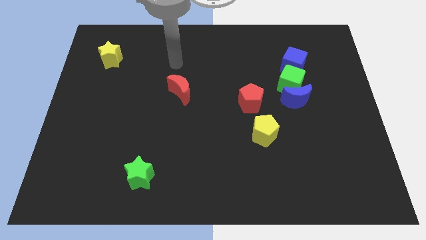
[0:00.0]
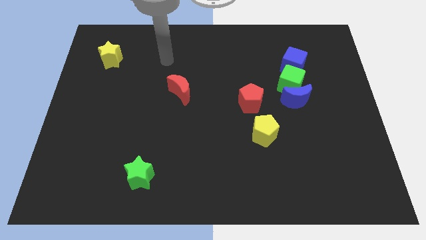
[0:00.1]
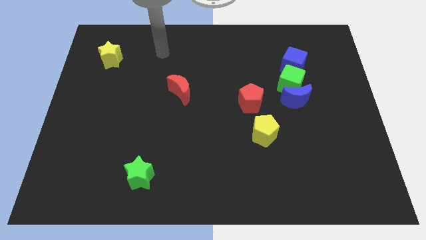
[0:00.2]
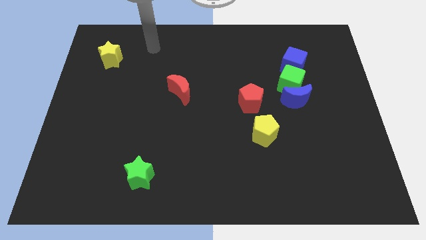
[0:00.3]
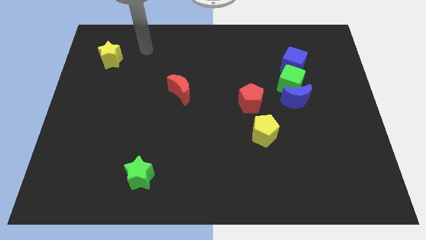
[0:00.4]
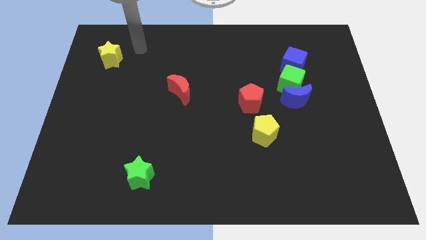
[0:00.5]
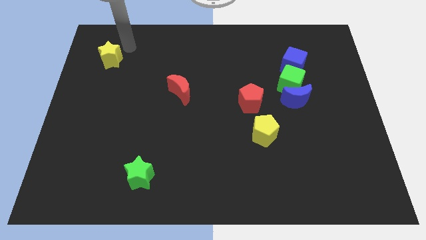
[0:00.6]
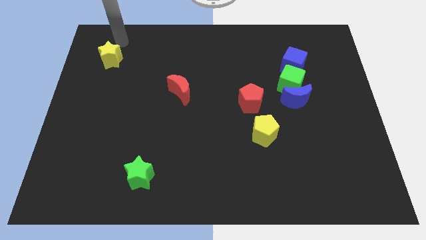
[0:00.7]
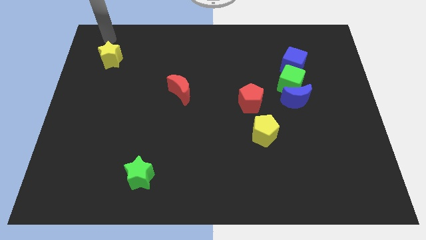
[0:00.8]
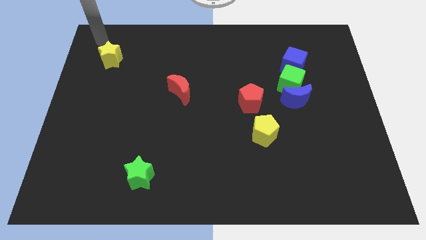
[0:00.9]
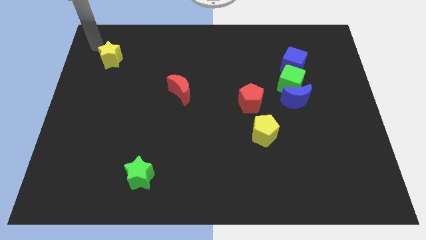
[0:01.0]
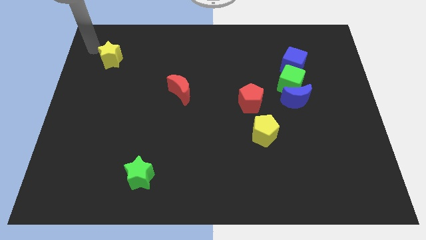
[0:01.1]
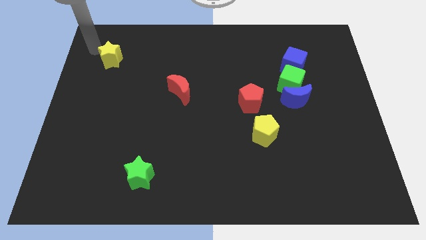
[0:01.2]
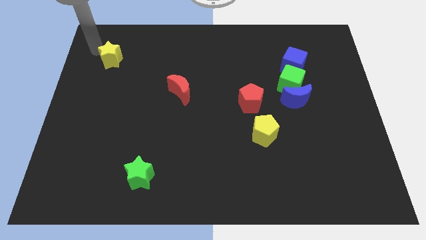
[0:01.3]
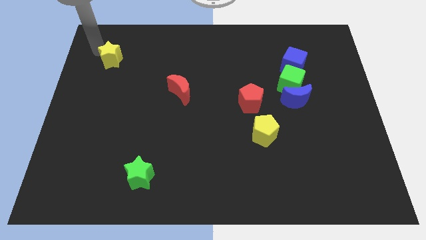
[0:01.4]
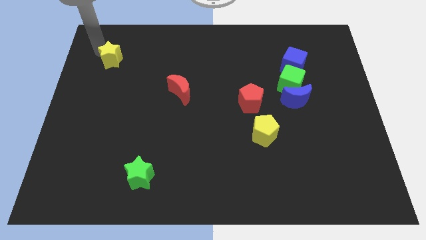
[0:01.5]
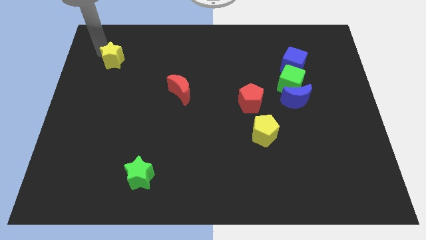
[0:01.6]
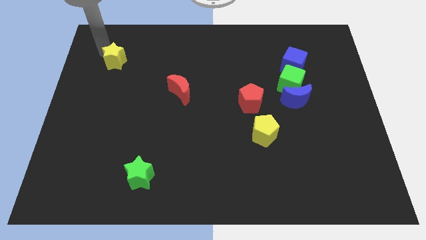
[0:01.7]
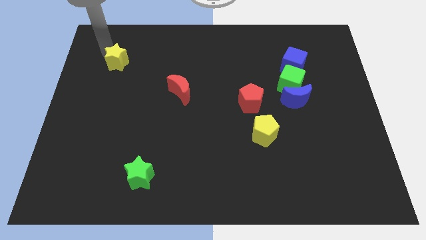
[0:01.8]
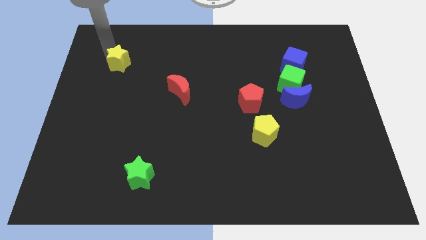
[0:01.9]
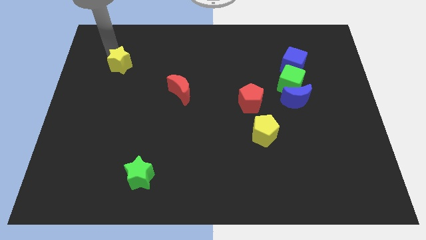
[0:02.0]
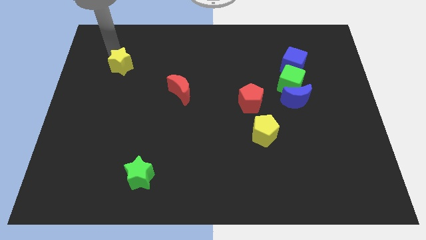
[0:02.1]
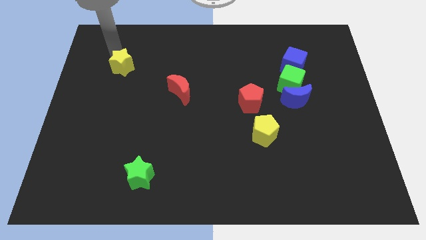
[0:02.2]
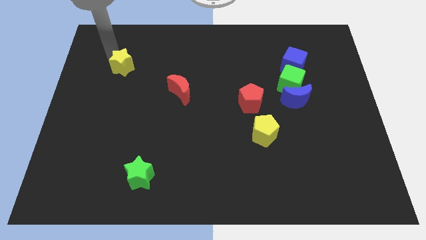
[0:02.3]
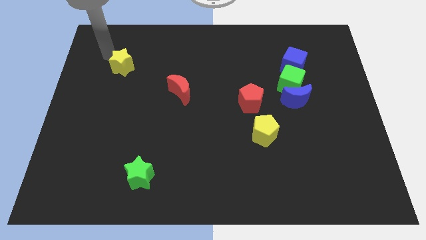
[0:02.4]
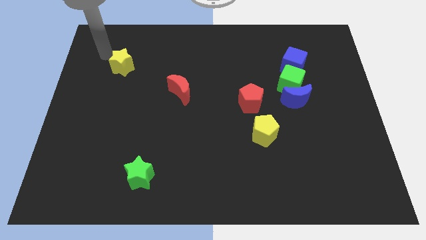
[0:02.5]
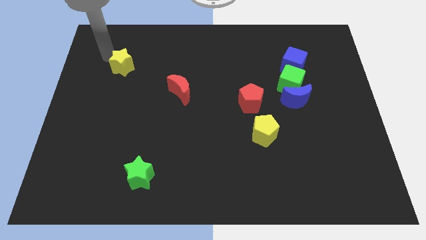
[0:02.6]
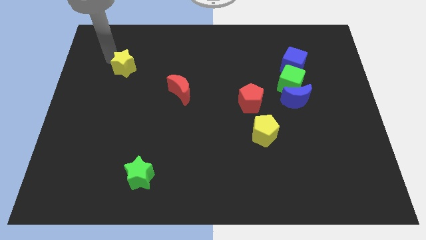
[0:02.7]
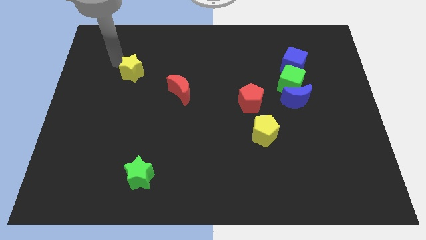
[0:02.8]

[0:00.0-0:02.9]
move the yellow star downwards and then to the right a little bit

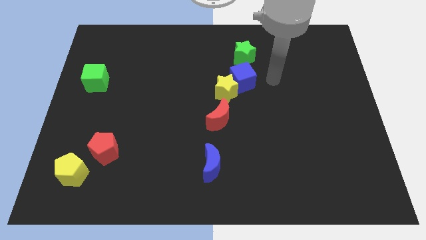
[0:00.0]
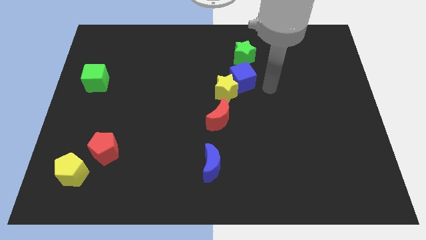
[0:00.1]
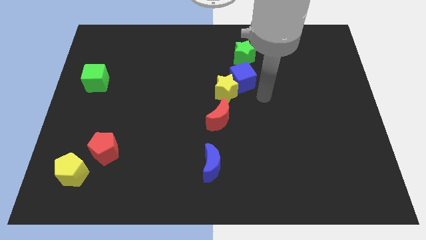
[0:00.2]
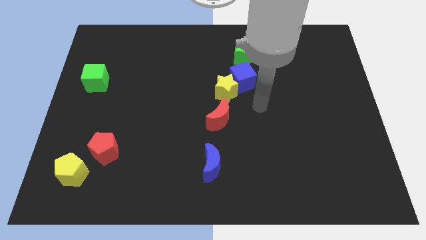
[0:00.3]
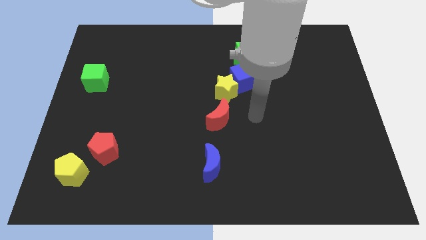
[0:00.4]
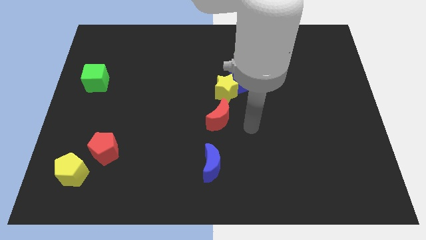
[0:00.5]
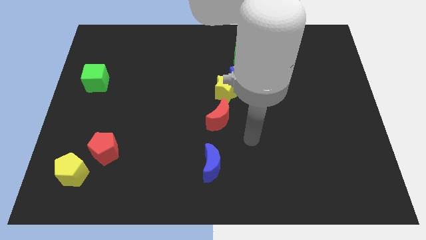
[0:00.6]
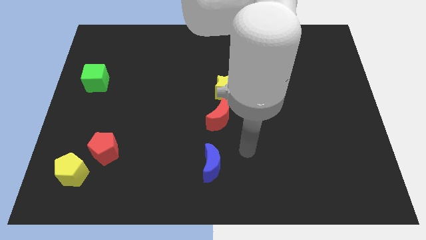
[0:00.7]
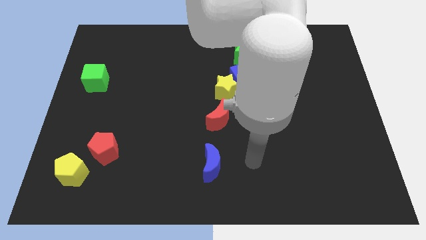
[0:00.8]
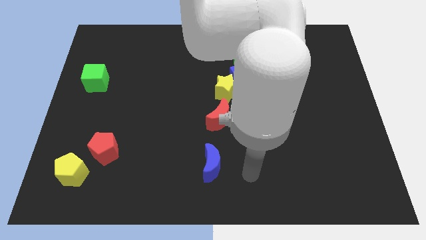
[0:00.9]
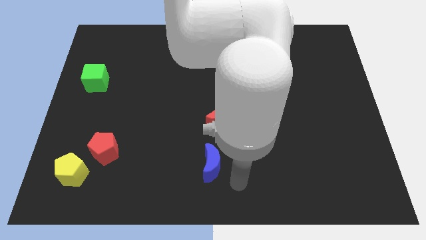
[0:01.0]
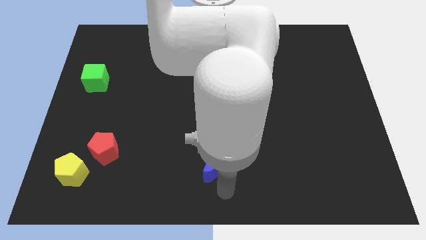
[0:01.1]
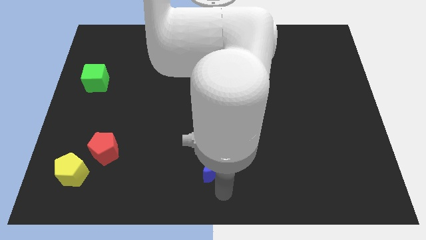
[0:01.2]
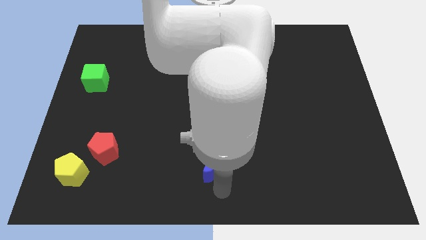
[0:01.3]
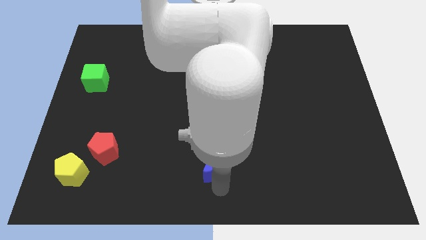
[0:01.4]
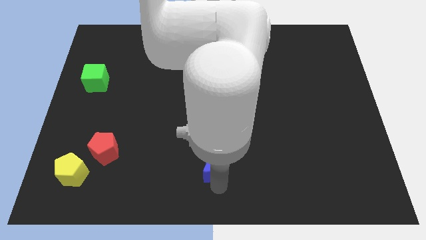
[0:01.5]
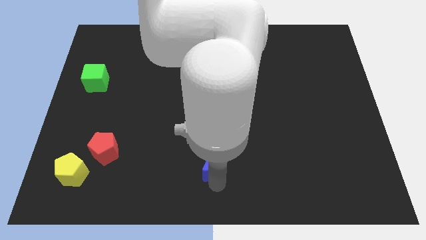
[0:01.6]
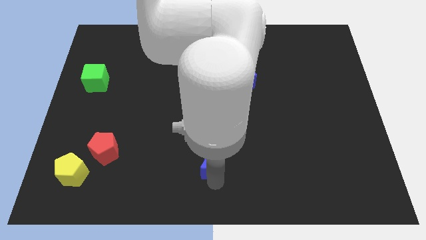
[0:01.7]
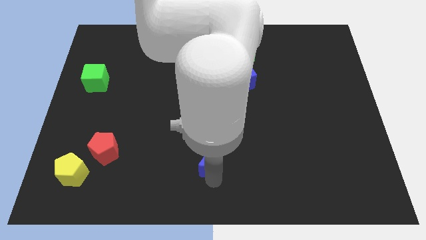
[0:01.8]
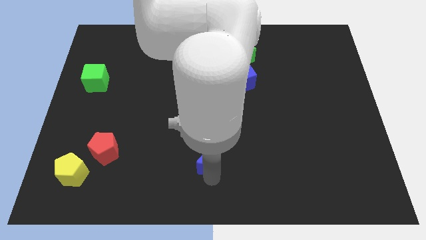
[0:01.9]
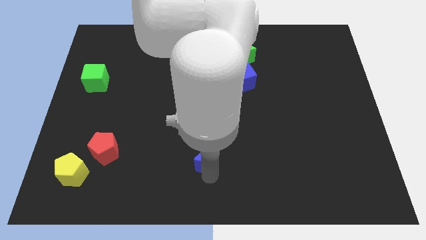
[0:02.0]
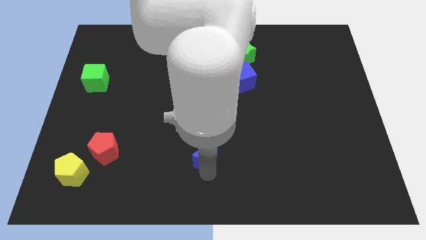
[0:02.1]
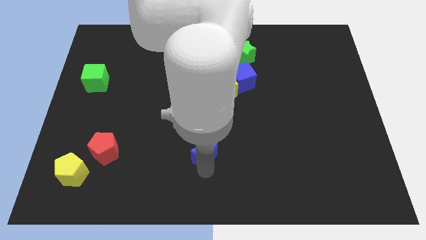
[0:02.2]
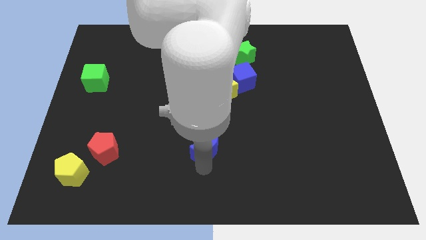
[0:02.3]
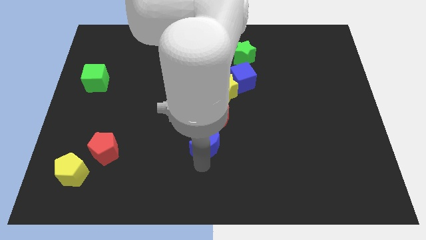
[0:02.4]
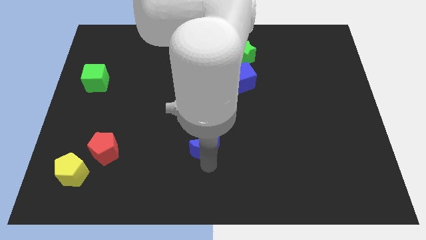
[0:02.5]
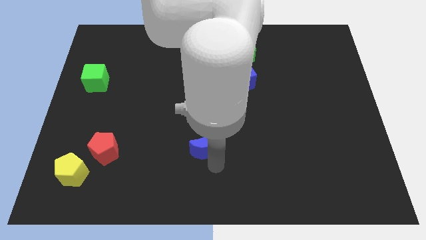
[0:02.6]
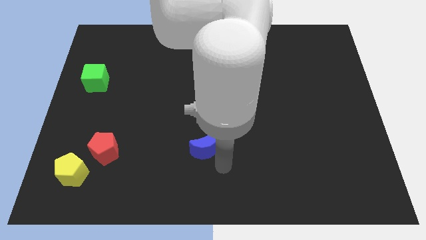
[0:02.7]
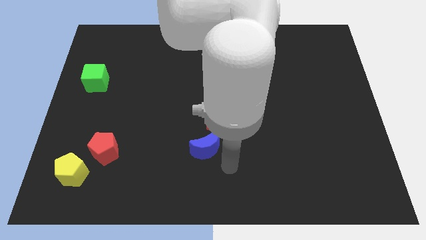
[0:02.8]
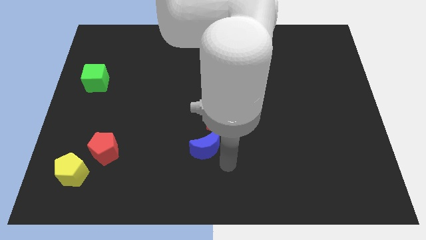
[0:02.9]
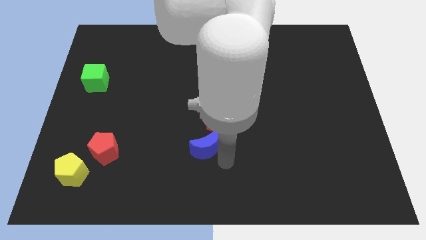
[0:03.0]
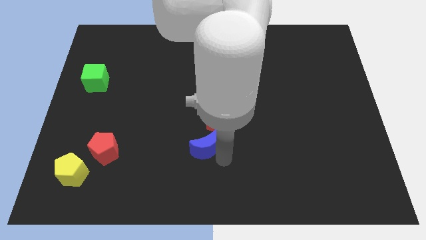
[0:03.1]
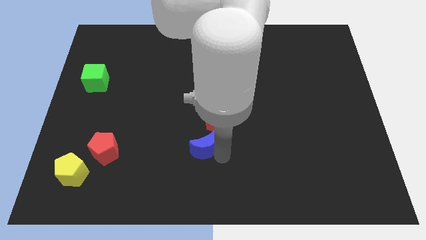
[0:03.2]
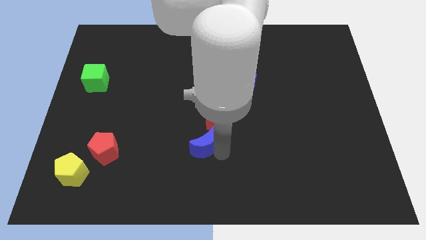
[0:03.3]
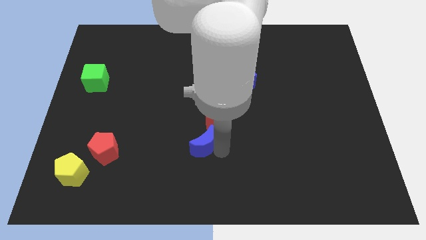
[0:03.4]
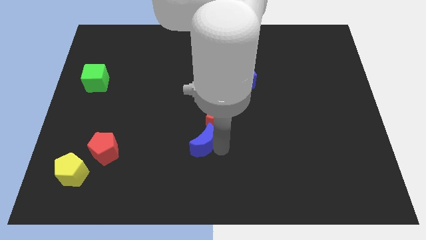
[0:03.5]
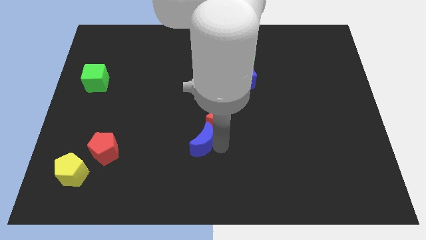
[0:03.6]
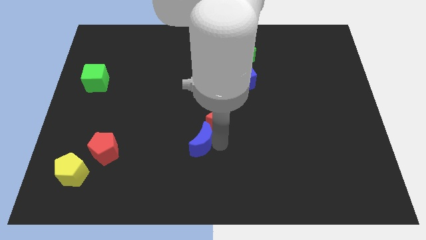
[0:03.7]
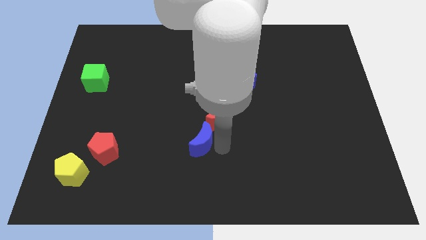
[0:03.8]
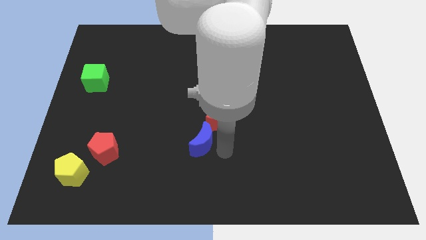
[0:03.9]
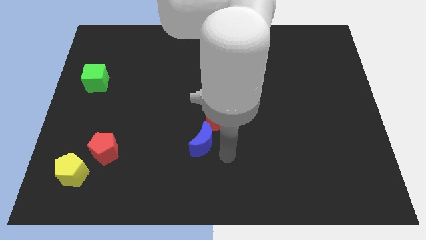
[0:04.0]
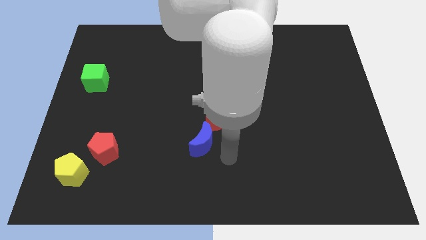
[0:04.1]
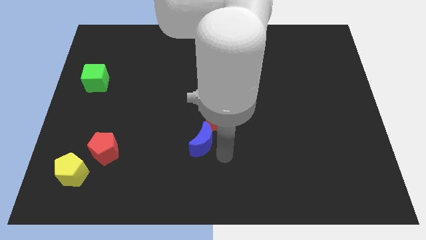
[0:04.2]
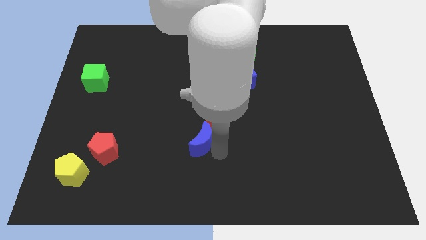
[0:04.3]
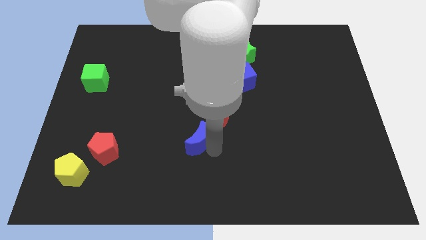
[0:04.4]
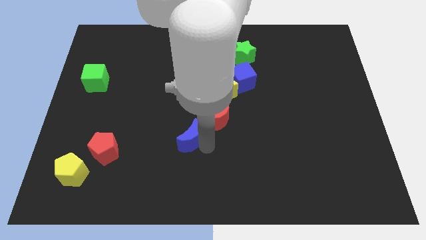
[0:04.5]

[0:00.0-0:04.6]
slide the blue moon upwards and to the left a little bit

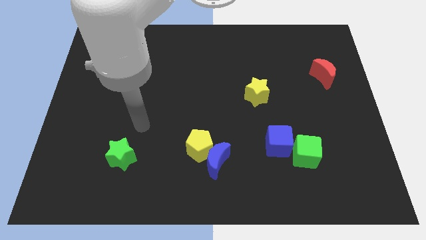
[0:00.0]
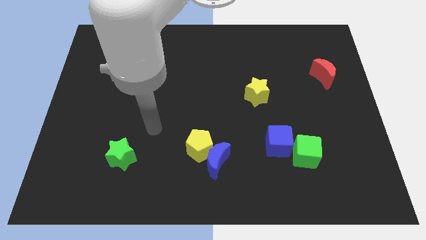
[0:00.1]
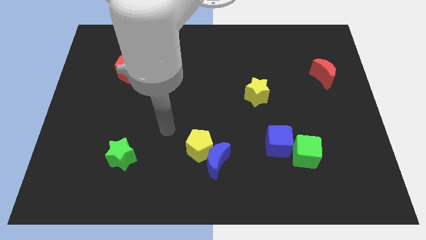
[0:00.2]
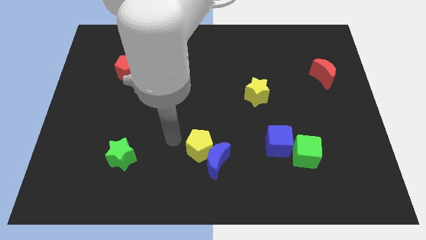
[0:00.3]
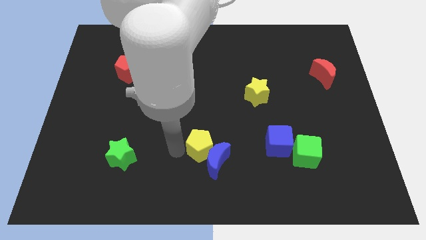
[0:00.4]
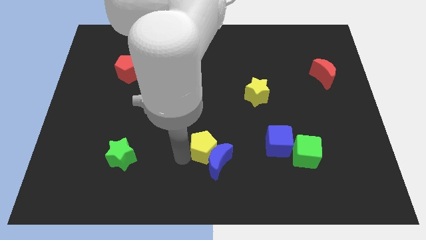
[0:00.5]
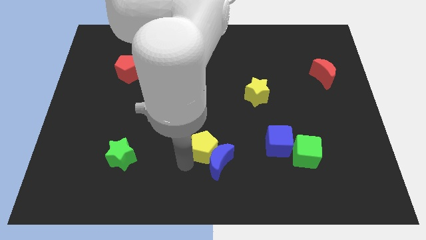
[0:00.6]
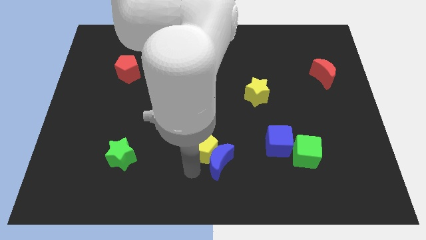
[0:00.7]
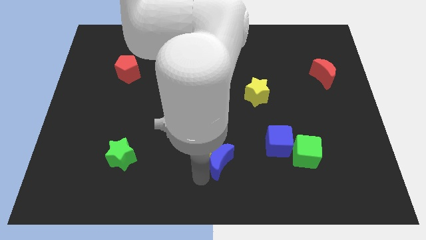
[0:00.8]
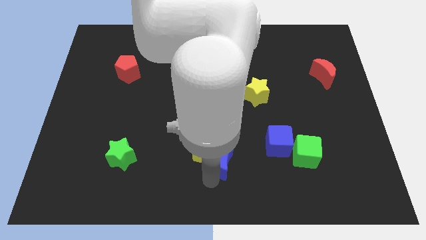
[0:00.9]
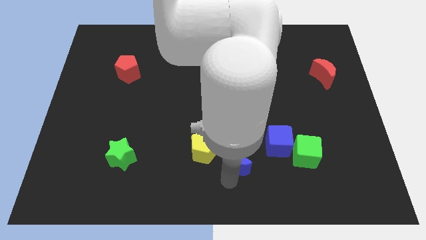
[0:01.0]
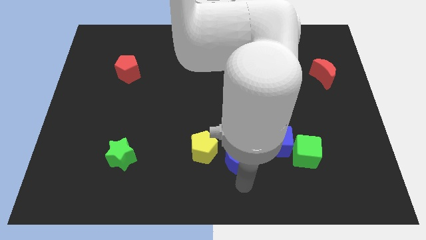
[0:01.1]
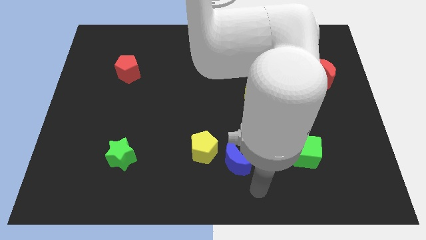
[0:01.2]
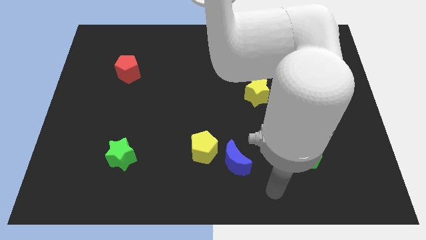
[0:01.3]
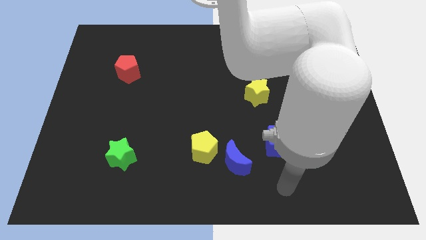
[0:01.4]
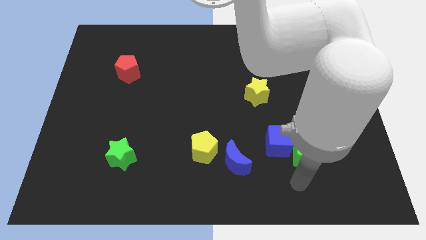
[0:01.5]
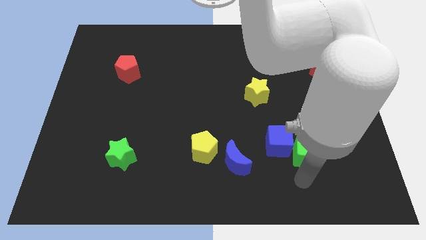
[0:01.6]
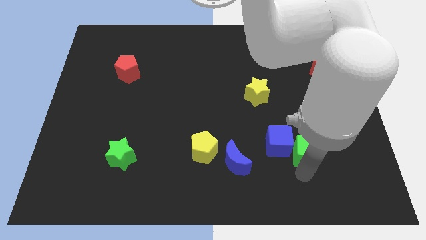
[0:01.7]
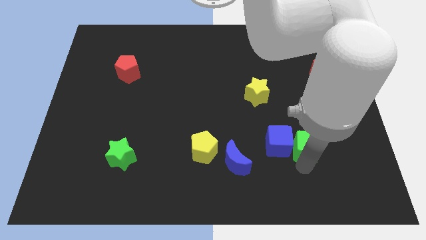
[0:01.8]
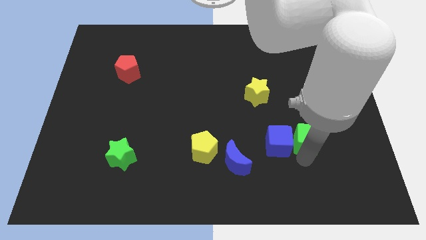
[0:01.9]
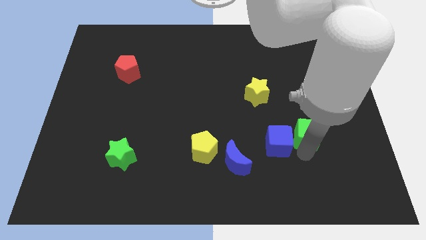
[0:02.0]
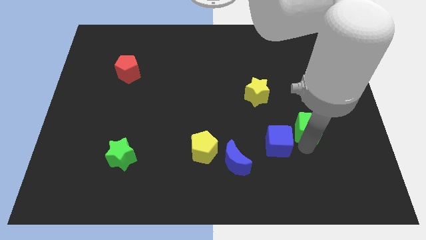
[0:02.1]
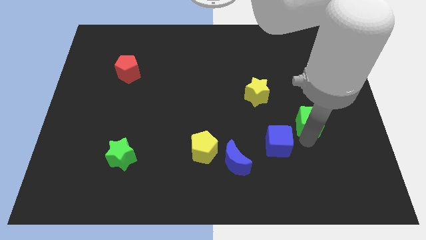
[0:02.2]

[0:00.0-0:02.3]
slightly push the green cube up
